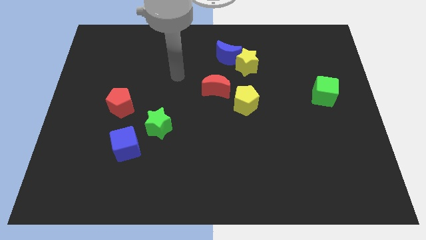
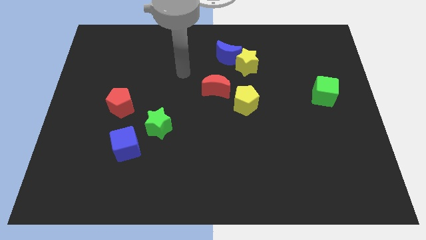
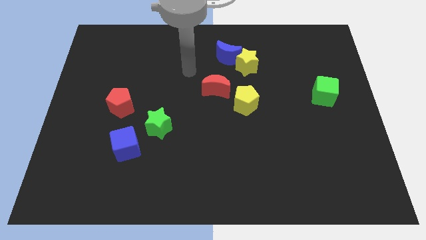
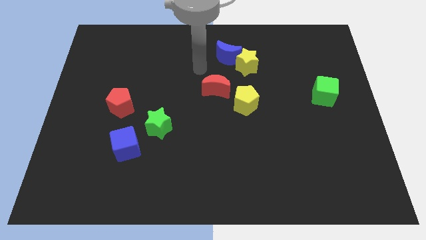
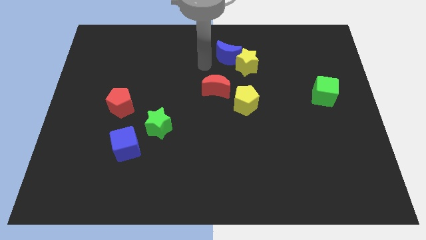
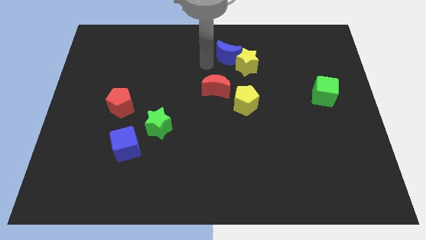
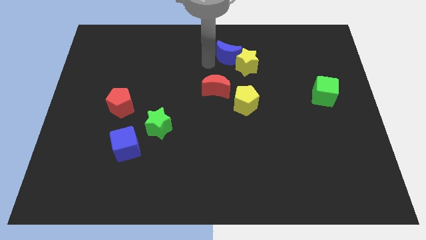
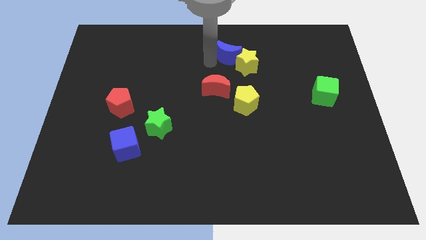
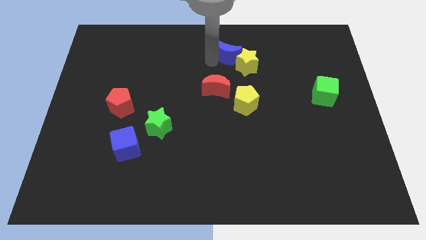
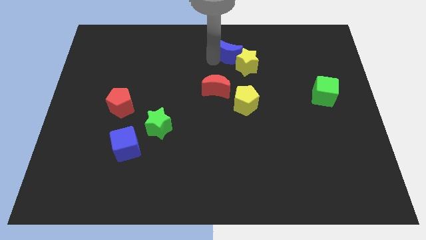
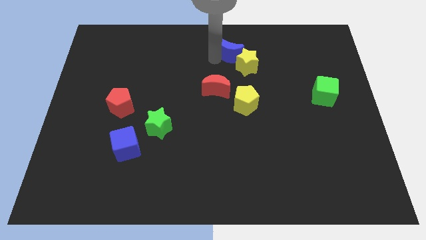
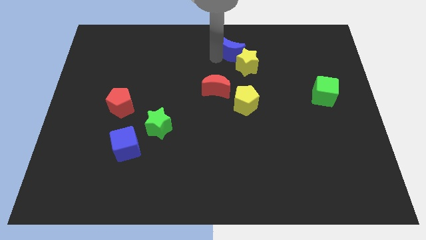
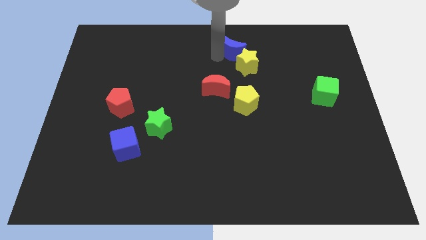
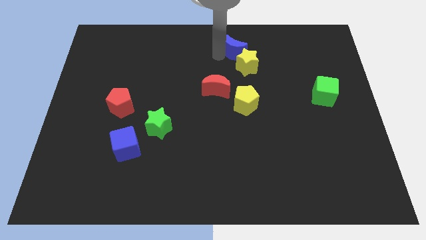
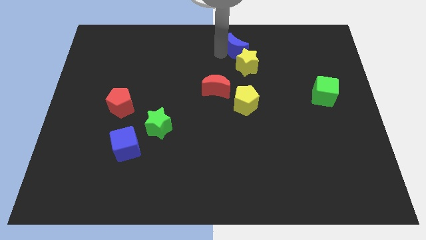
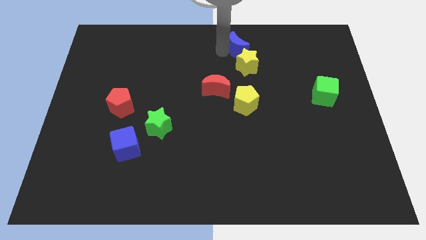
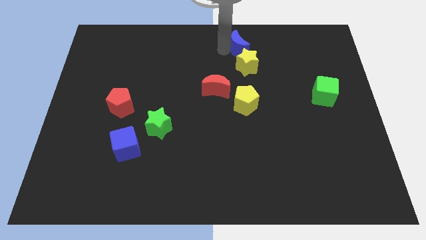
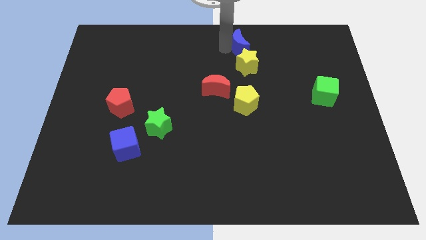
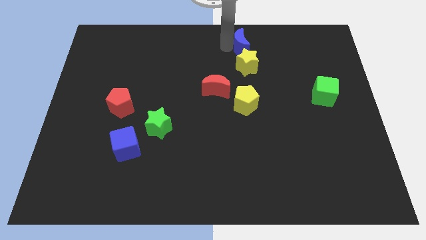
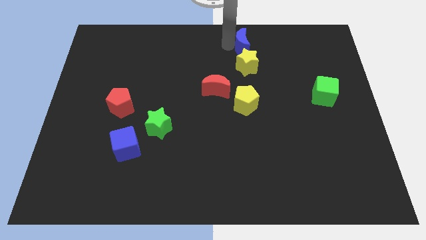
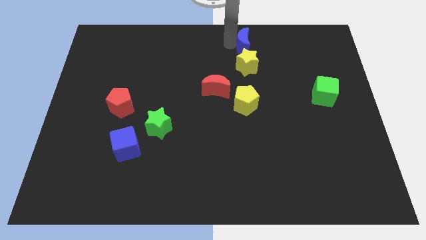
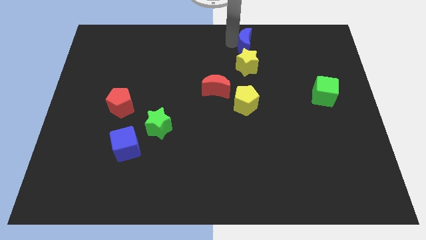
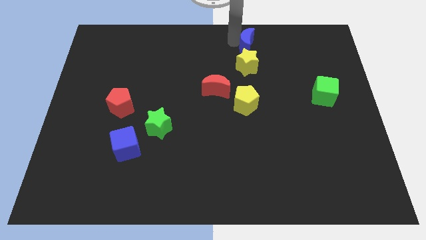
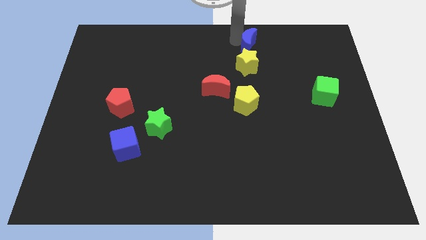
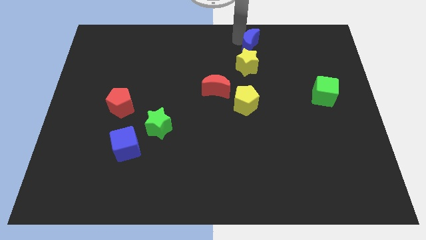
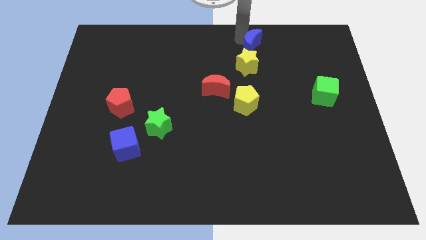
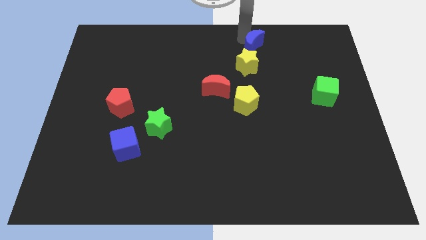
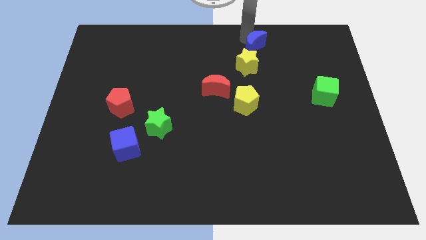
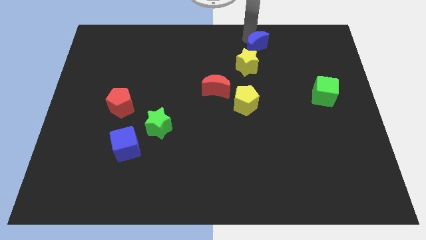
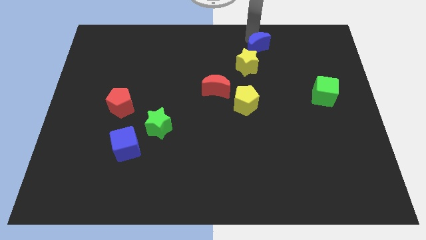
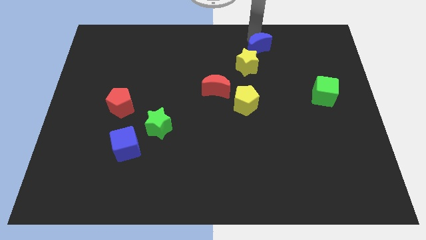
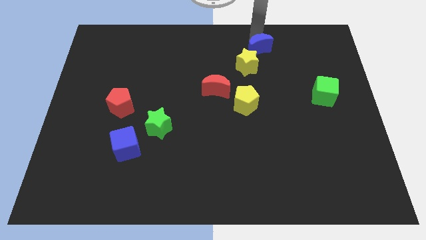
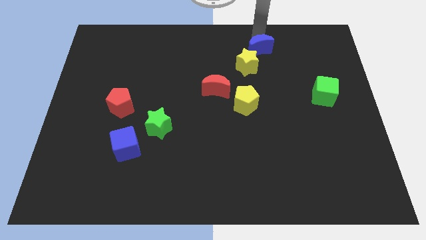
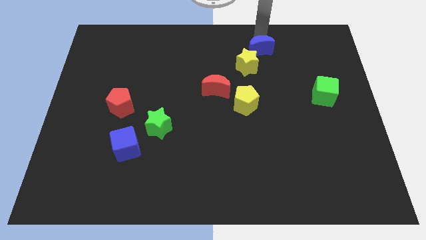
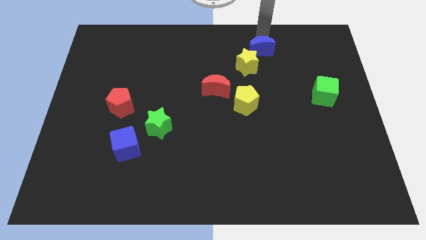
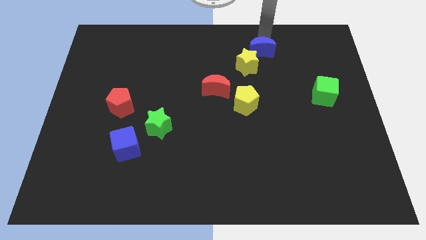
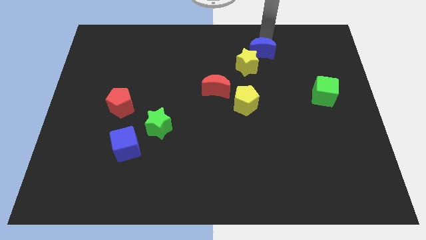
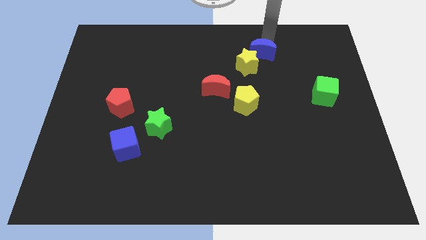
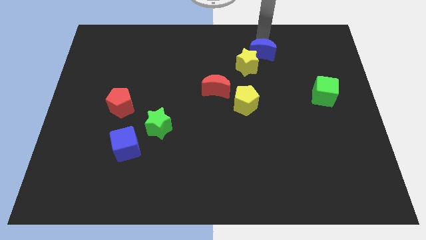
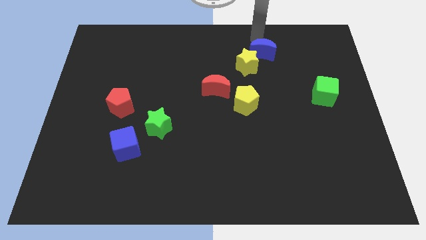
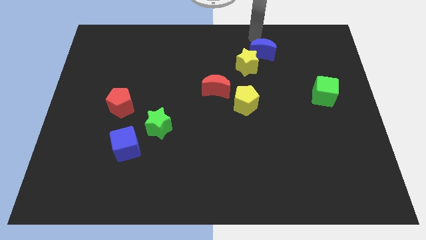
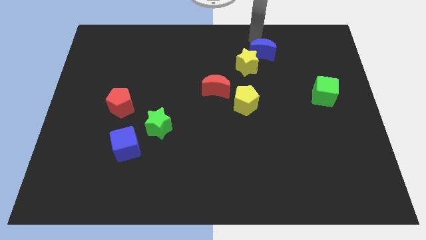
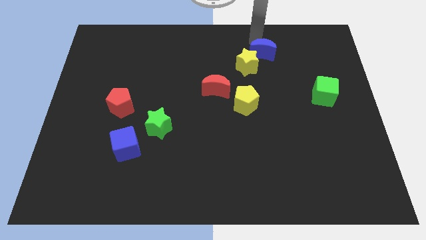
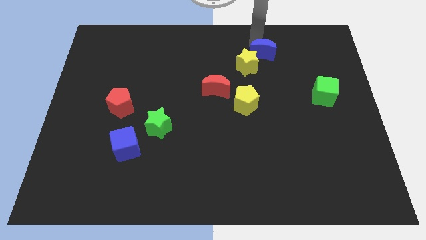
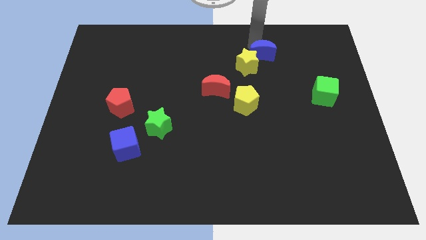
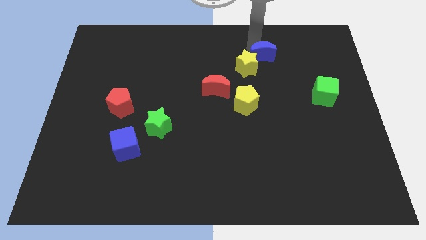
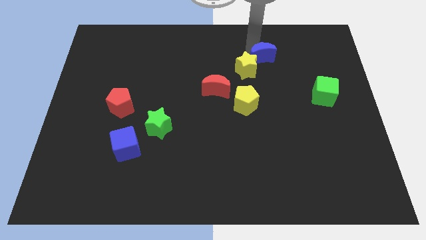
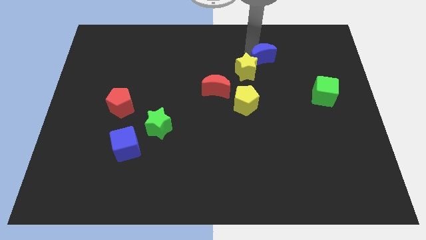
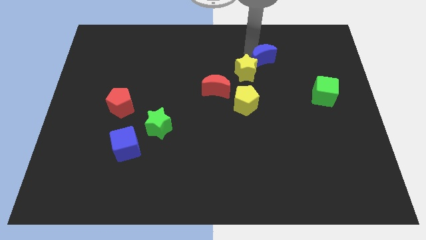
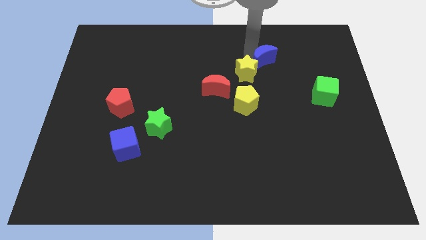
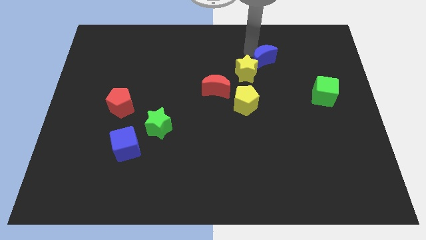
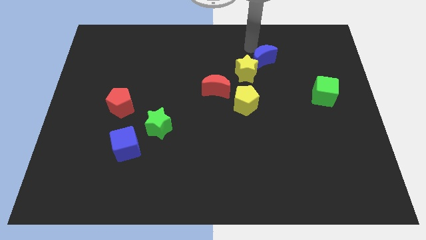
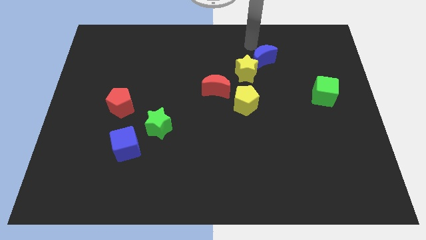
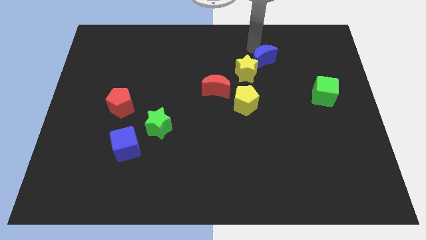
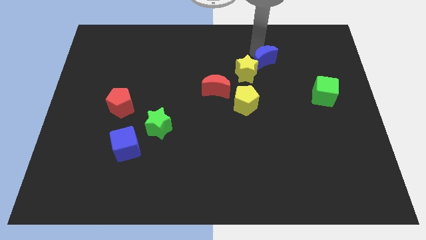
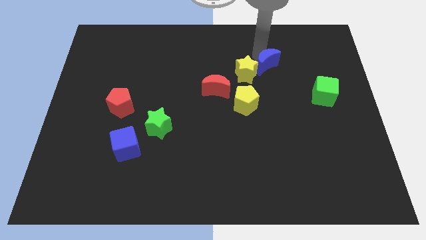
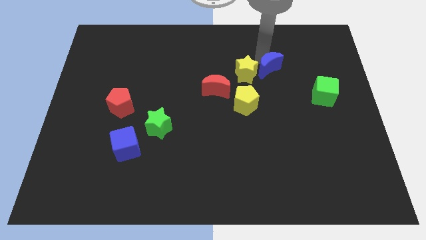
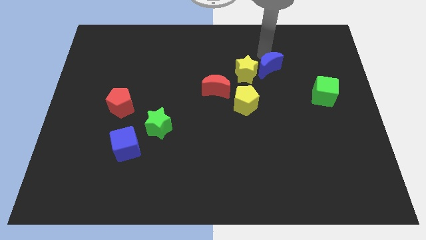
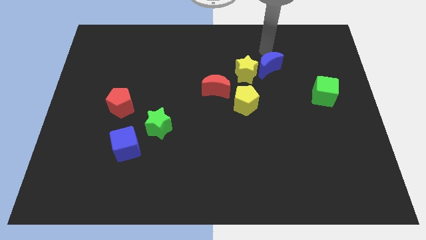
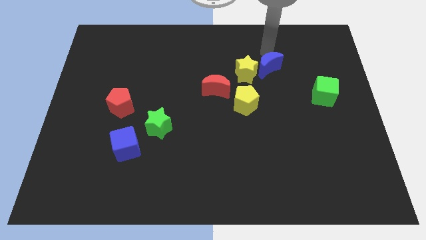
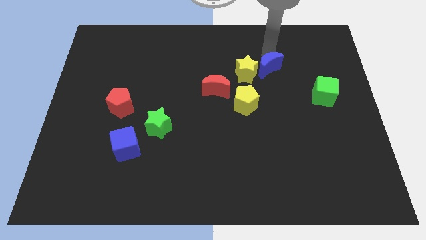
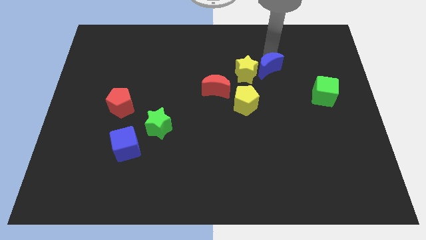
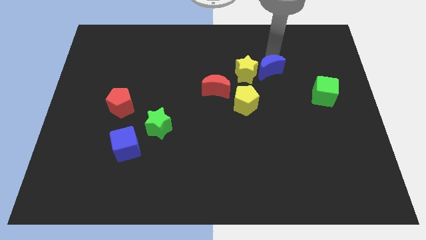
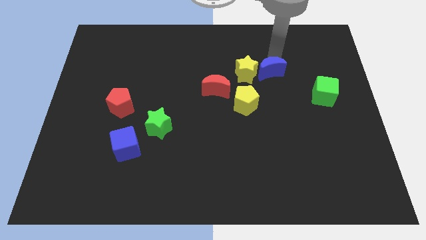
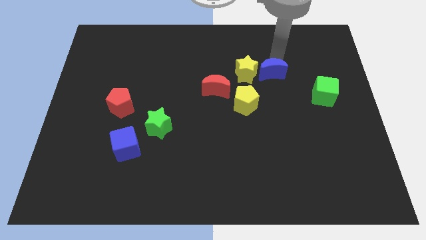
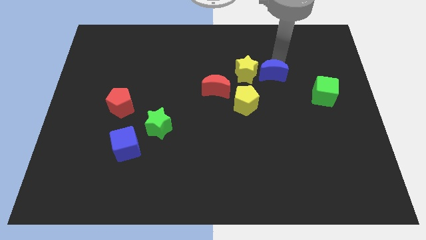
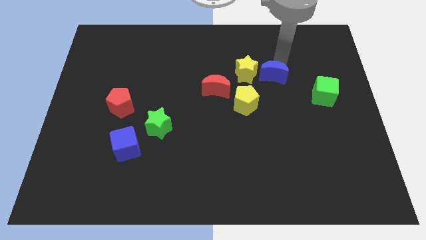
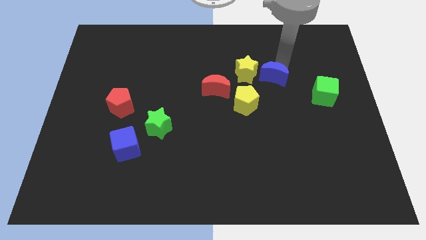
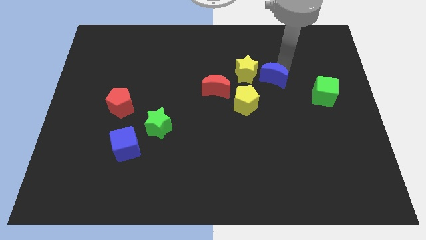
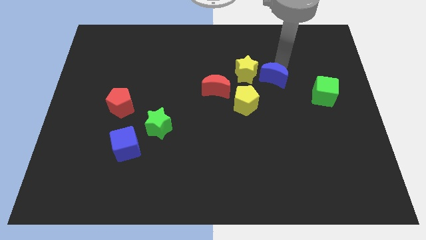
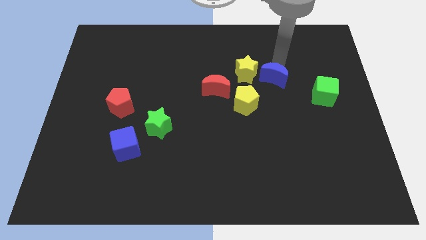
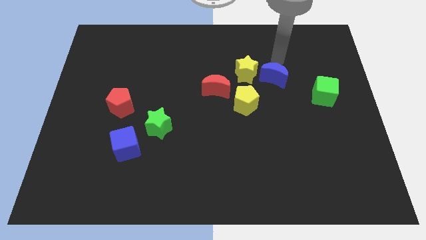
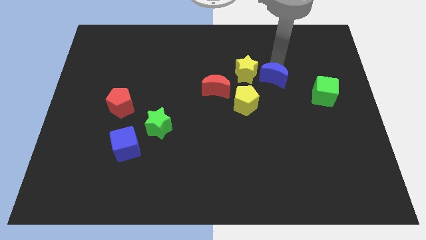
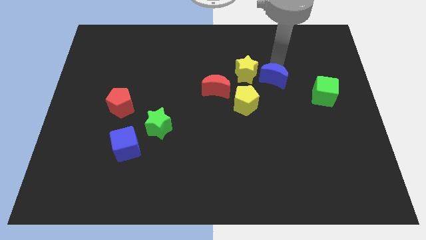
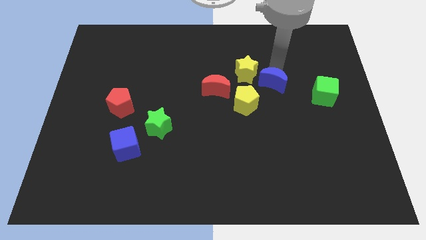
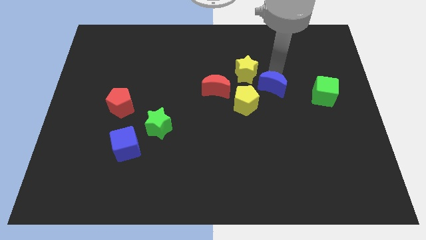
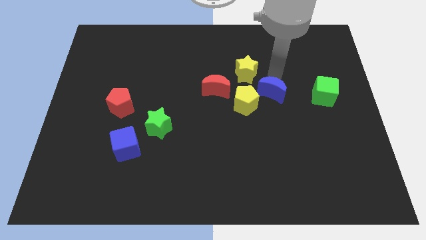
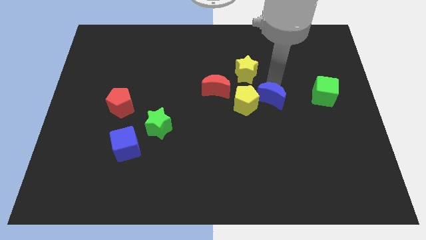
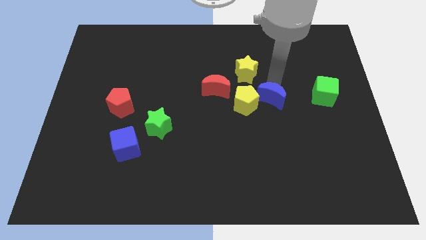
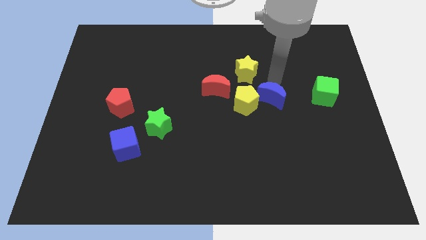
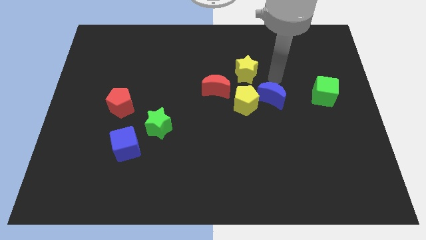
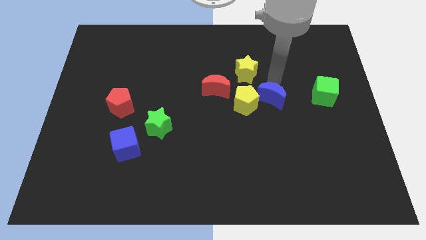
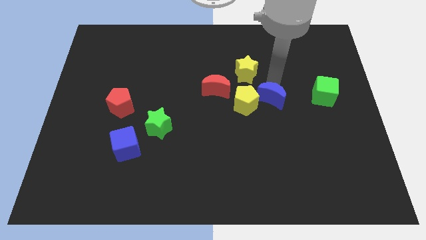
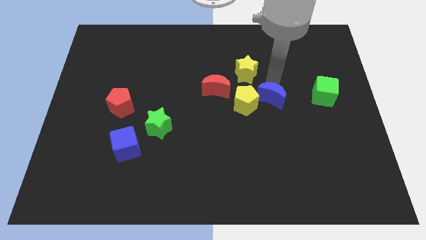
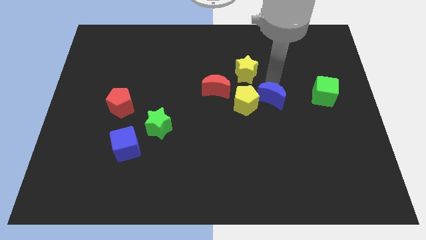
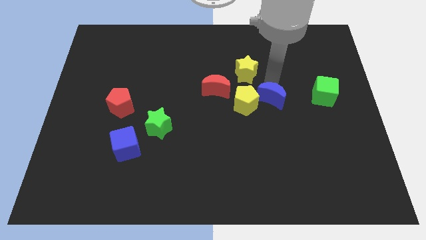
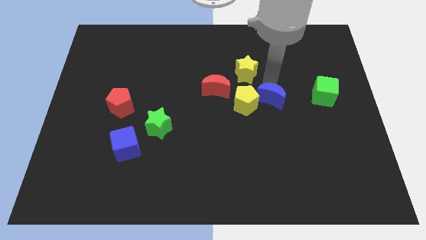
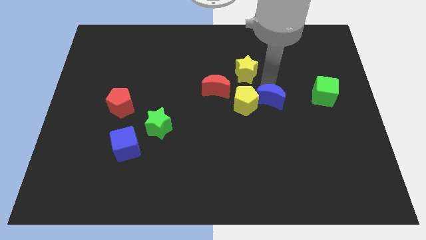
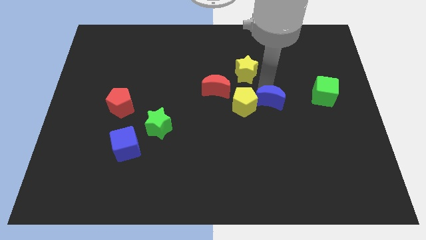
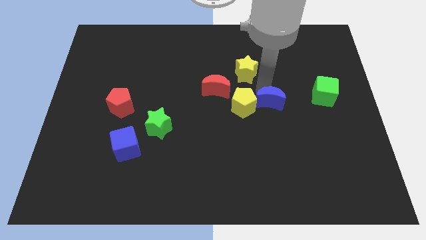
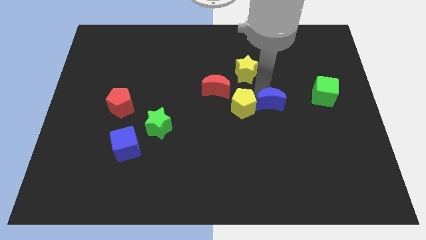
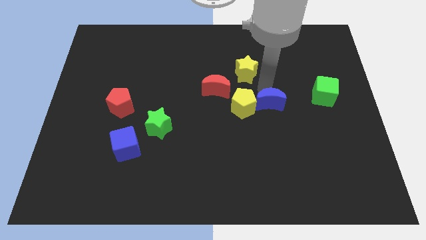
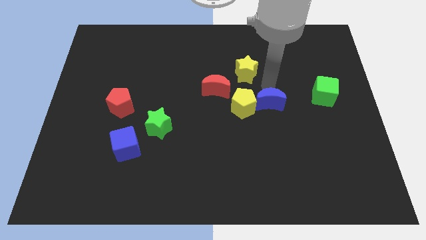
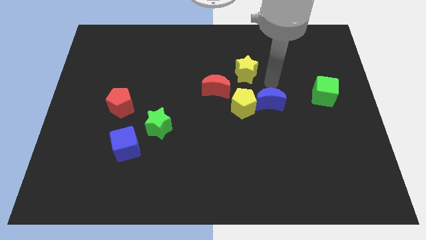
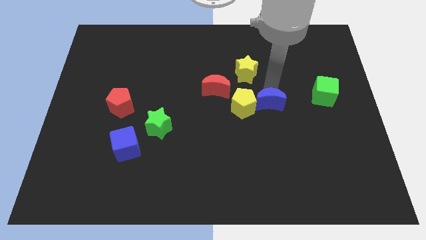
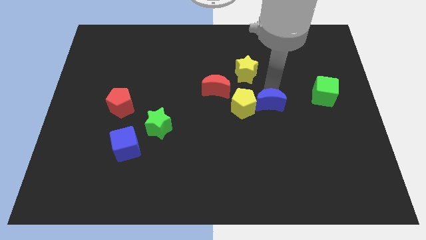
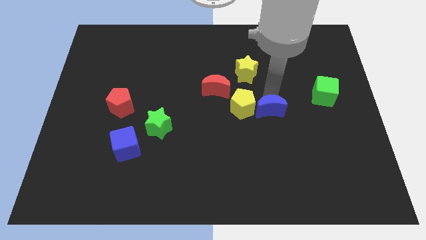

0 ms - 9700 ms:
put the blue moon diagonally down and to the right of the yellow pentagon
